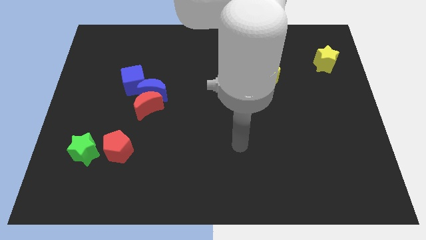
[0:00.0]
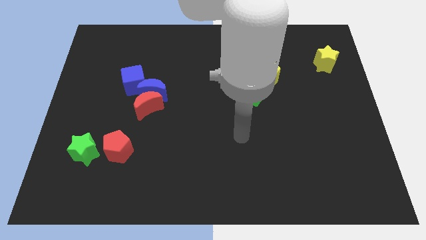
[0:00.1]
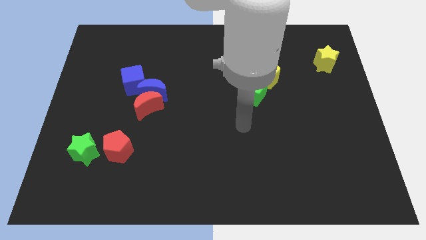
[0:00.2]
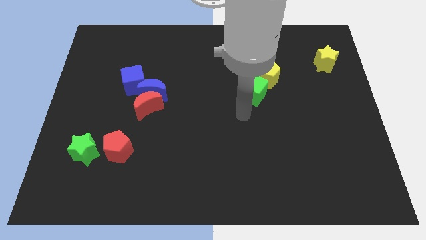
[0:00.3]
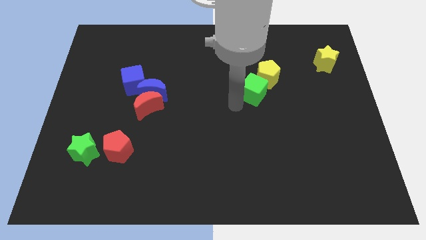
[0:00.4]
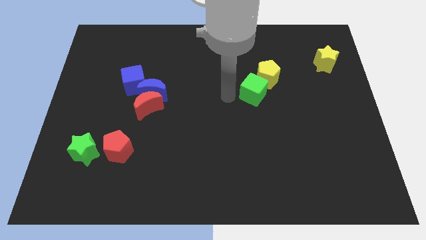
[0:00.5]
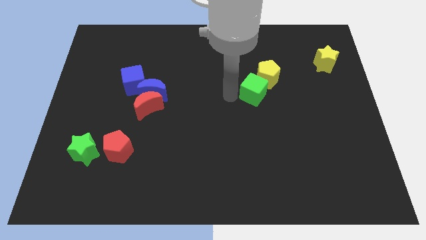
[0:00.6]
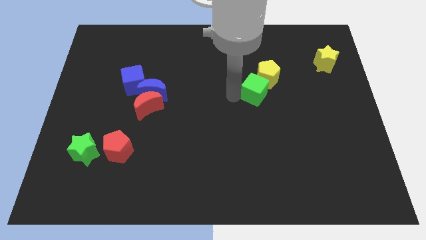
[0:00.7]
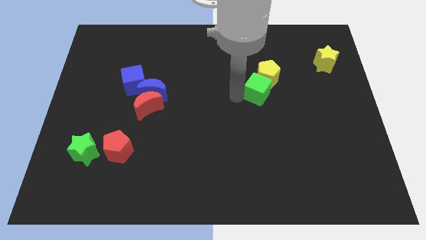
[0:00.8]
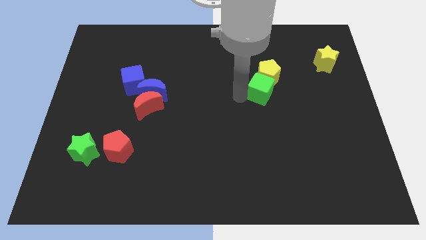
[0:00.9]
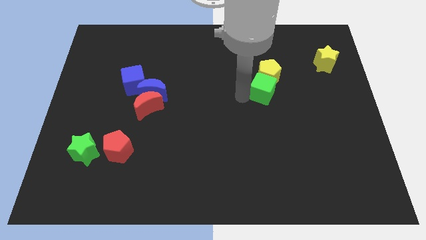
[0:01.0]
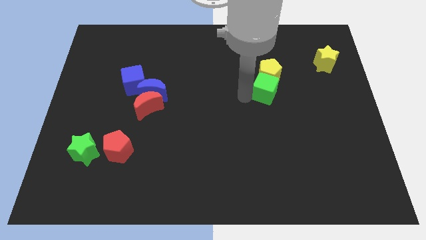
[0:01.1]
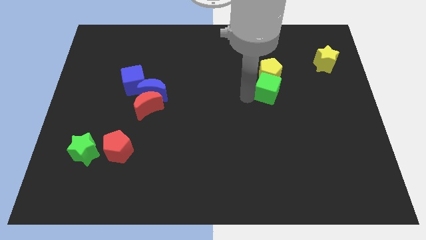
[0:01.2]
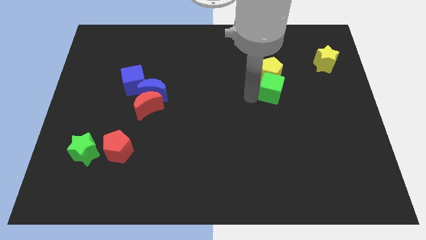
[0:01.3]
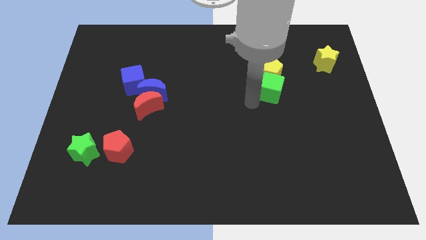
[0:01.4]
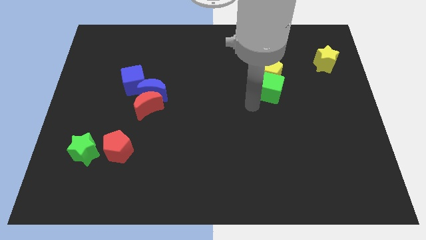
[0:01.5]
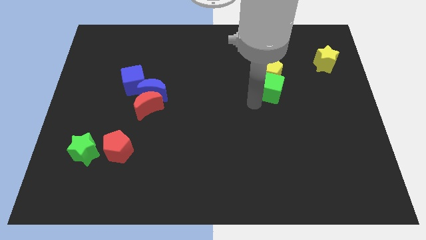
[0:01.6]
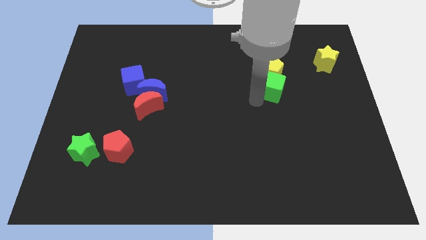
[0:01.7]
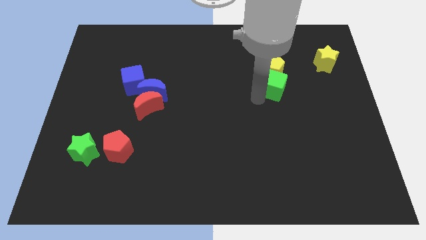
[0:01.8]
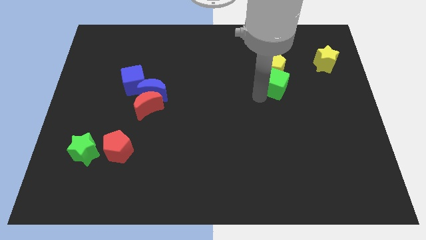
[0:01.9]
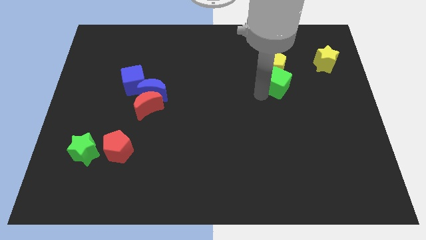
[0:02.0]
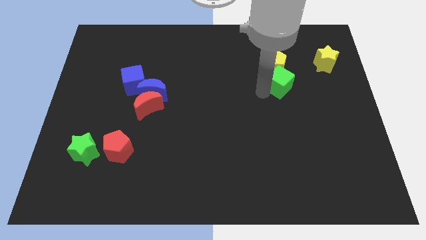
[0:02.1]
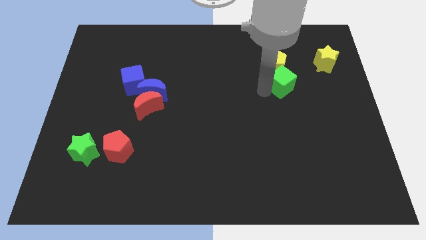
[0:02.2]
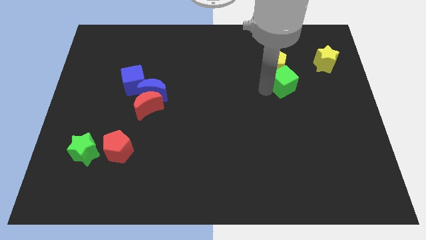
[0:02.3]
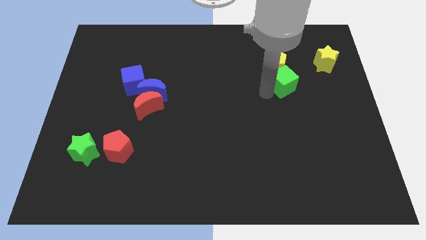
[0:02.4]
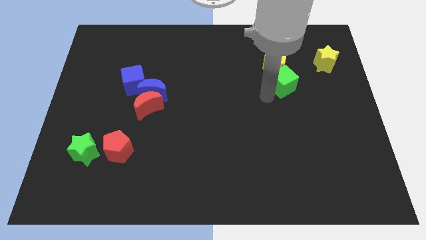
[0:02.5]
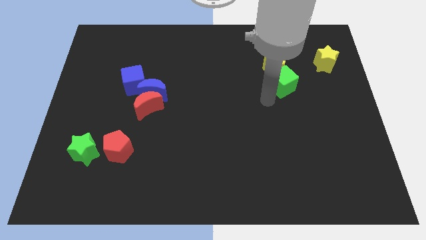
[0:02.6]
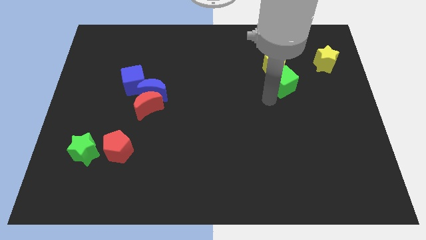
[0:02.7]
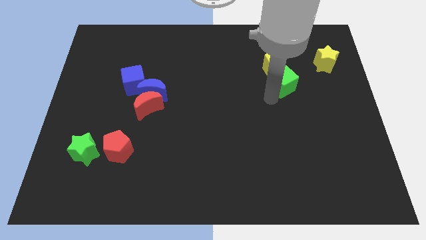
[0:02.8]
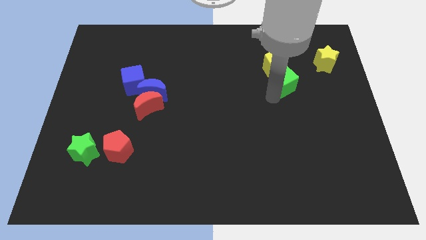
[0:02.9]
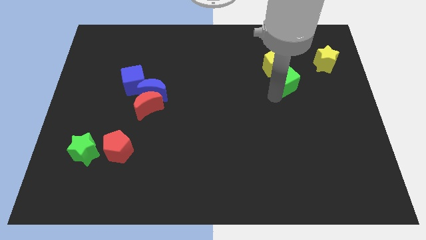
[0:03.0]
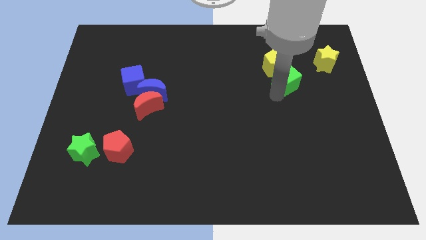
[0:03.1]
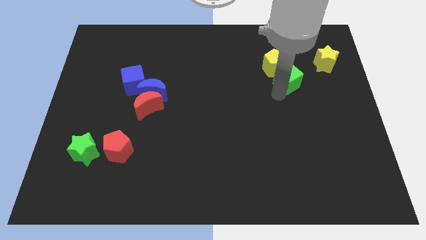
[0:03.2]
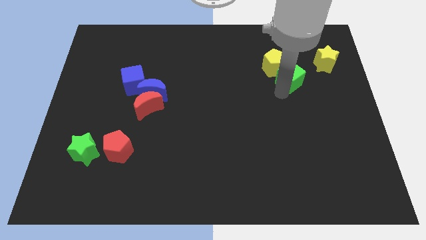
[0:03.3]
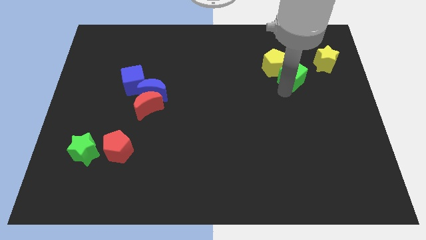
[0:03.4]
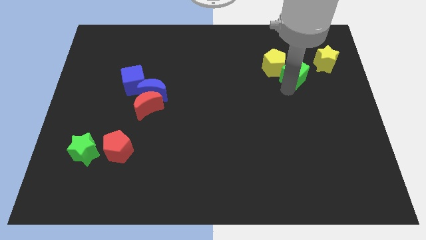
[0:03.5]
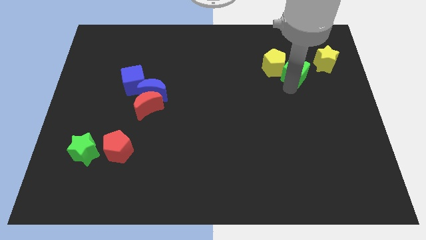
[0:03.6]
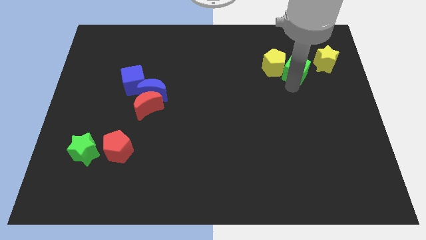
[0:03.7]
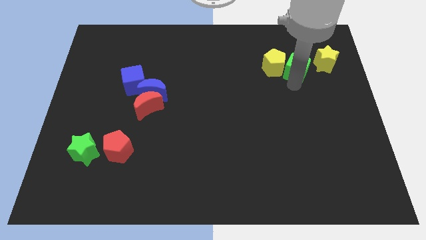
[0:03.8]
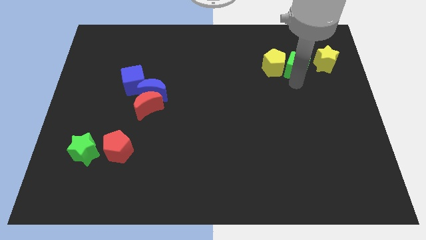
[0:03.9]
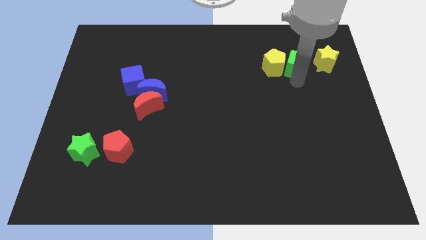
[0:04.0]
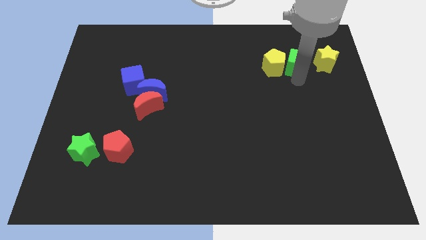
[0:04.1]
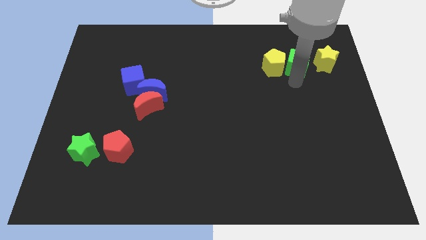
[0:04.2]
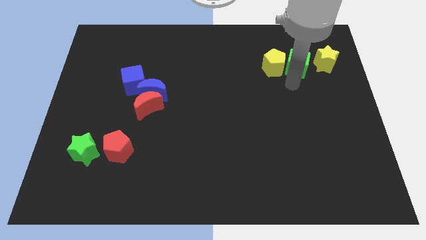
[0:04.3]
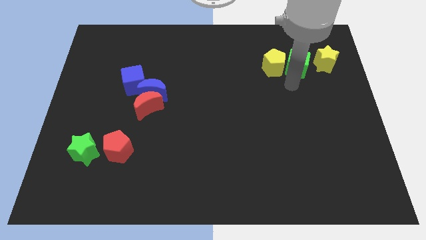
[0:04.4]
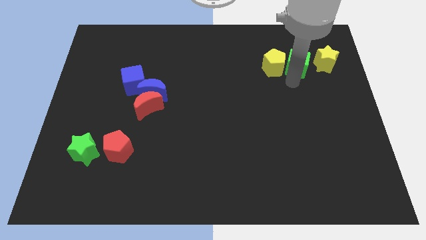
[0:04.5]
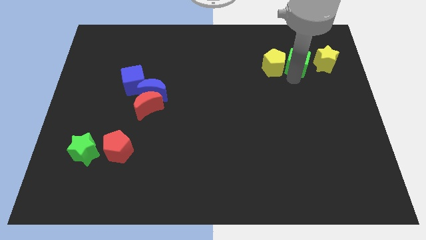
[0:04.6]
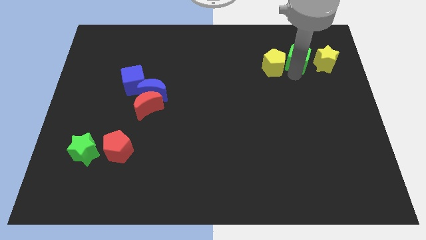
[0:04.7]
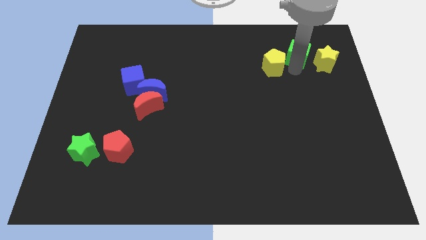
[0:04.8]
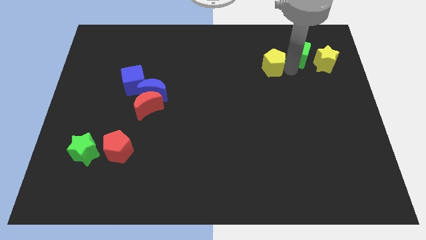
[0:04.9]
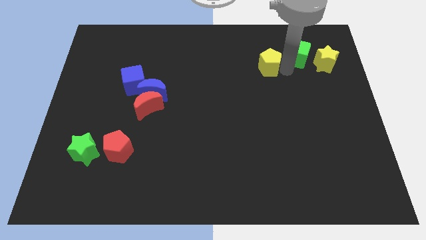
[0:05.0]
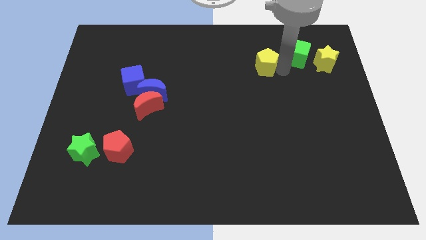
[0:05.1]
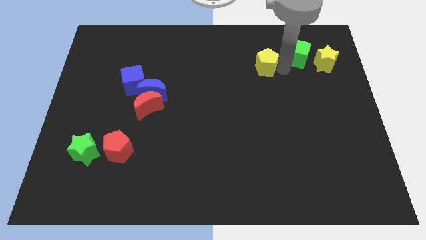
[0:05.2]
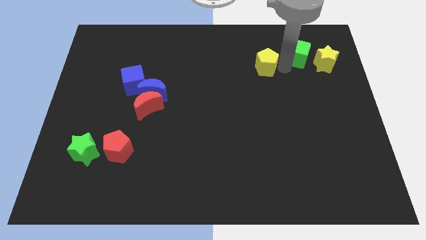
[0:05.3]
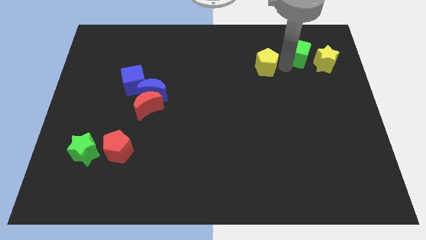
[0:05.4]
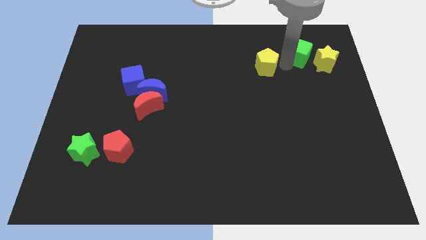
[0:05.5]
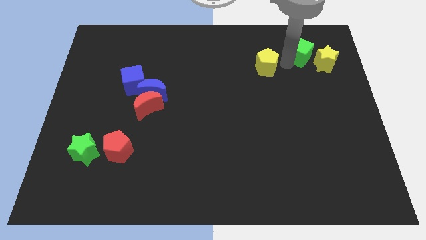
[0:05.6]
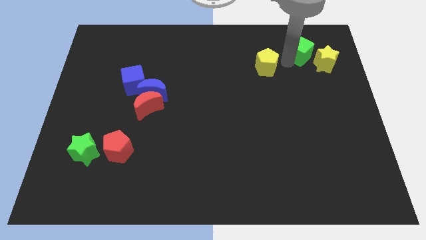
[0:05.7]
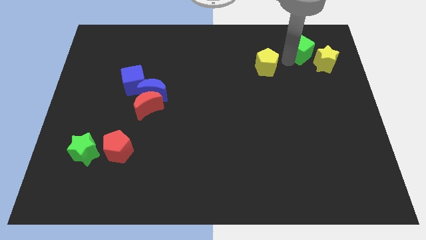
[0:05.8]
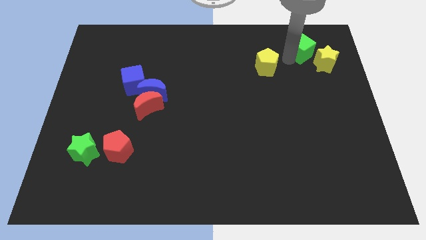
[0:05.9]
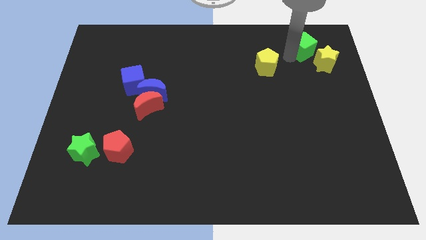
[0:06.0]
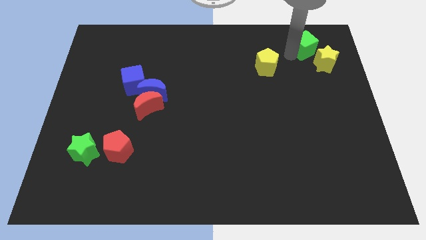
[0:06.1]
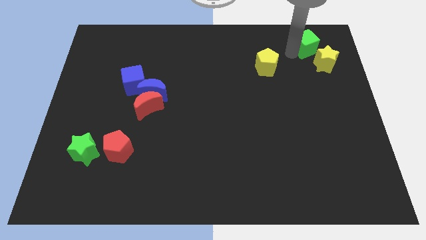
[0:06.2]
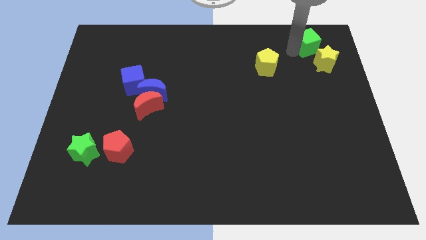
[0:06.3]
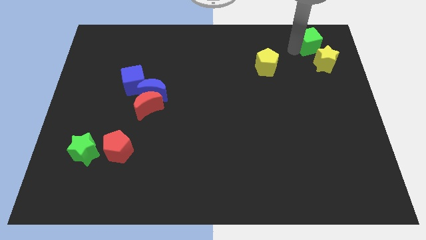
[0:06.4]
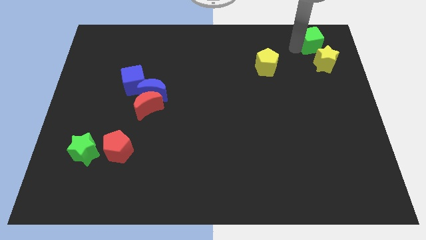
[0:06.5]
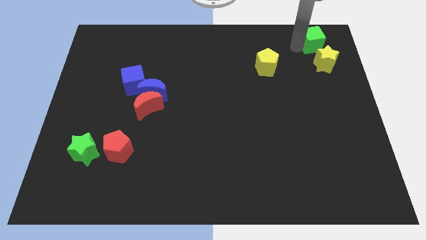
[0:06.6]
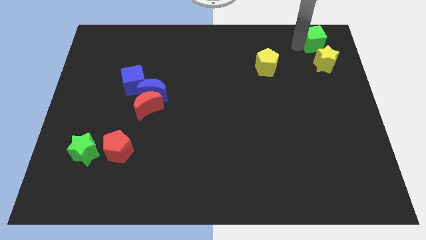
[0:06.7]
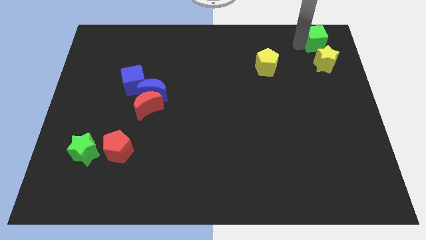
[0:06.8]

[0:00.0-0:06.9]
slide the green cube to the upper right corner
